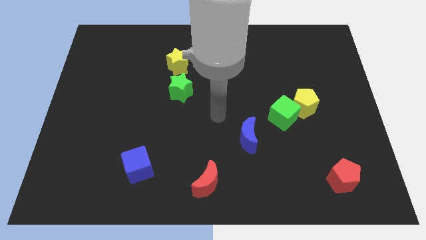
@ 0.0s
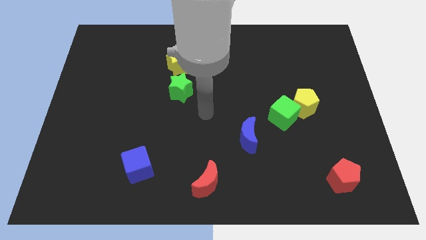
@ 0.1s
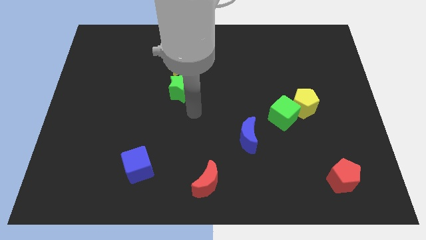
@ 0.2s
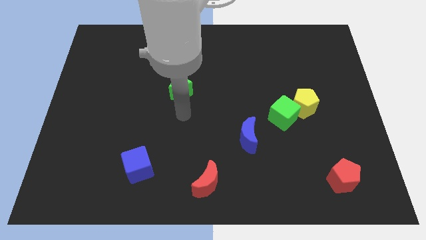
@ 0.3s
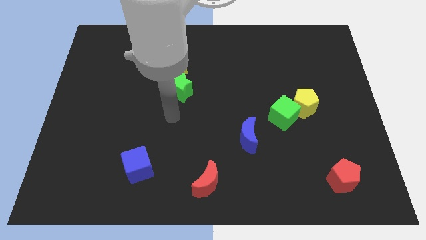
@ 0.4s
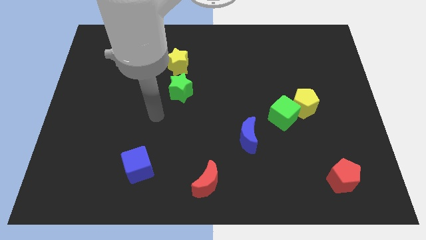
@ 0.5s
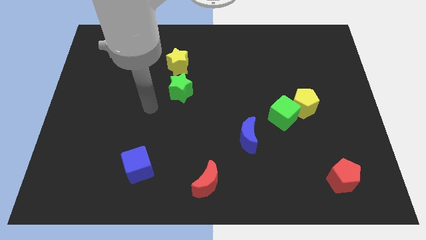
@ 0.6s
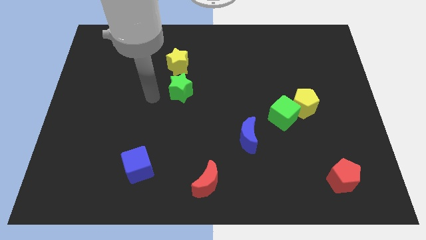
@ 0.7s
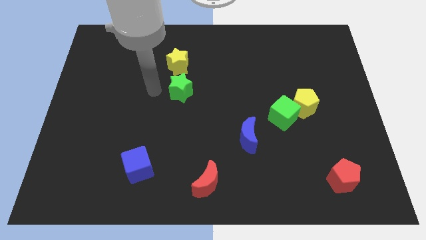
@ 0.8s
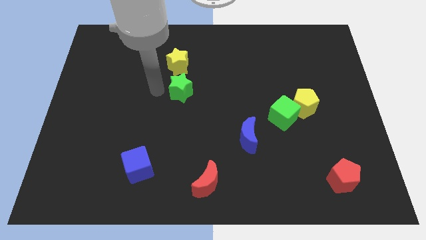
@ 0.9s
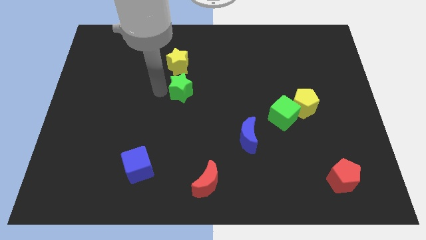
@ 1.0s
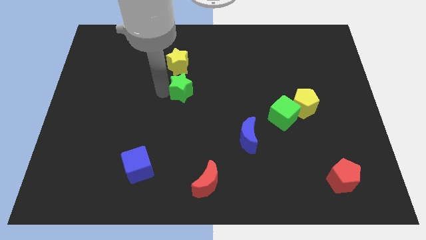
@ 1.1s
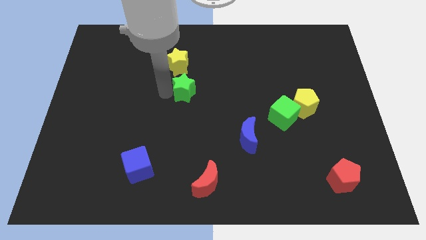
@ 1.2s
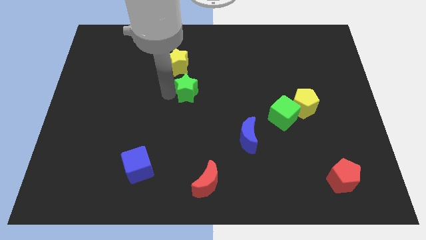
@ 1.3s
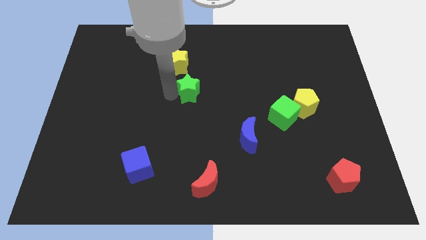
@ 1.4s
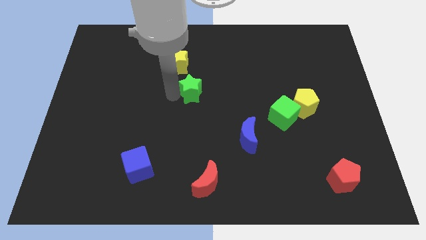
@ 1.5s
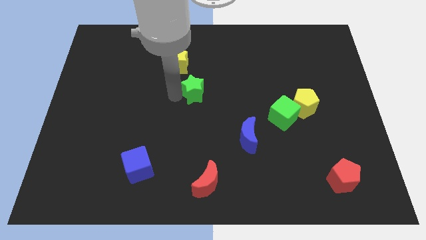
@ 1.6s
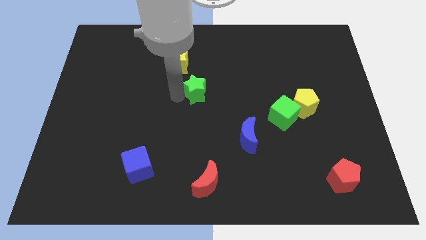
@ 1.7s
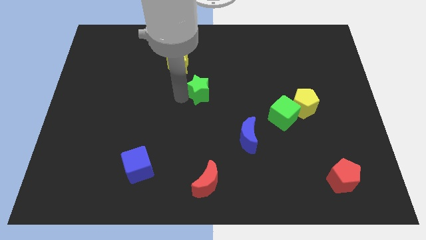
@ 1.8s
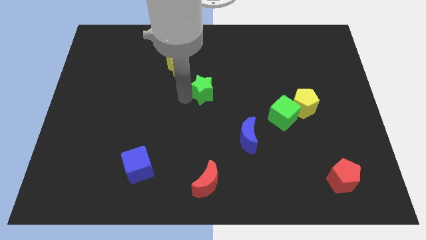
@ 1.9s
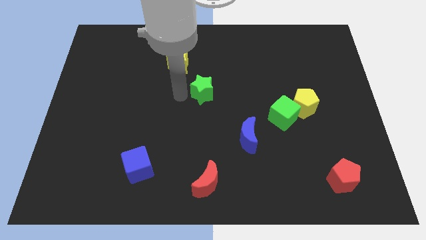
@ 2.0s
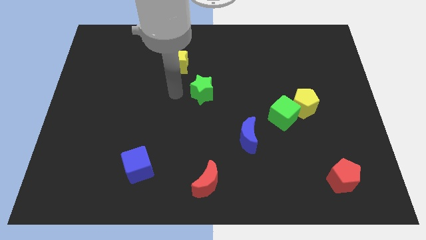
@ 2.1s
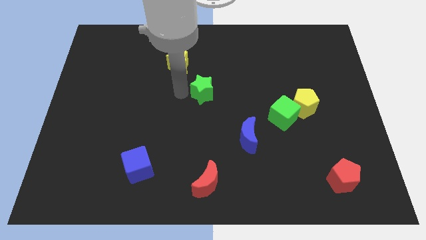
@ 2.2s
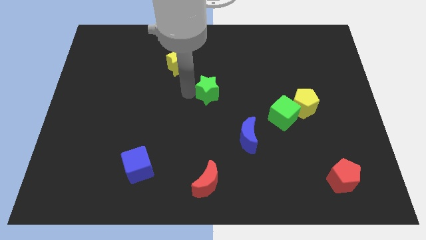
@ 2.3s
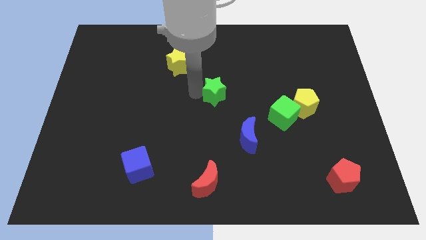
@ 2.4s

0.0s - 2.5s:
slightly move the green star to the right

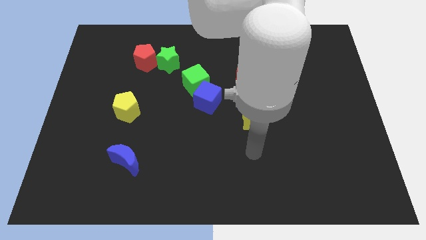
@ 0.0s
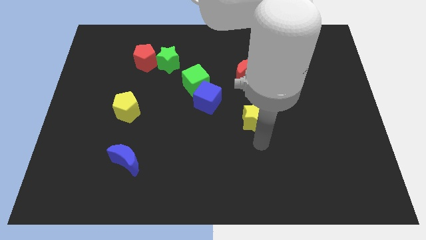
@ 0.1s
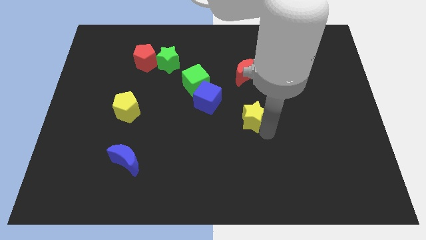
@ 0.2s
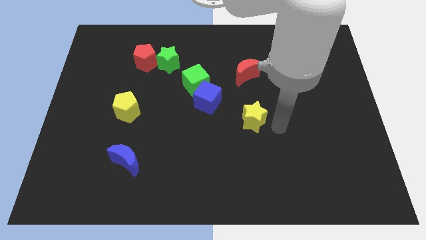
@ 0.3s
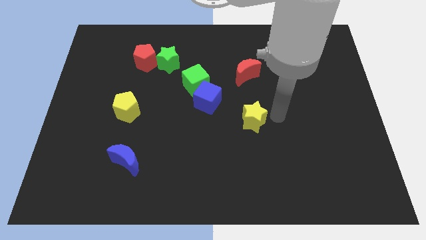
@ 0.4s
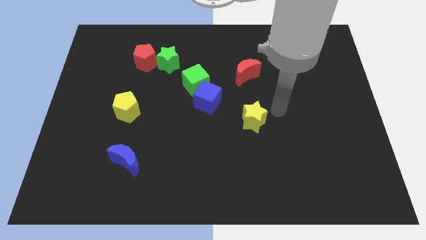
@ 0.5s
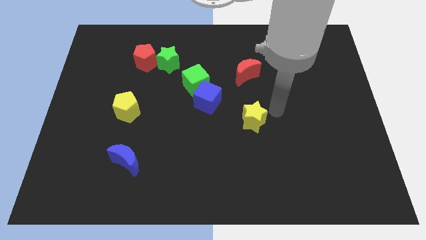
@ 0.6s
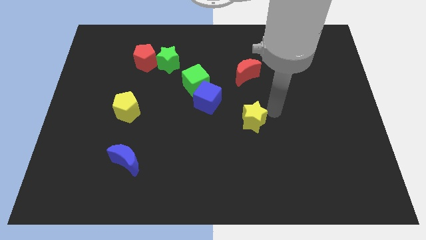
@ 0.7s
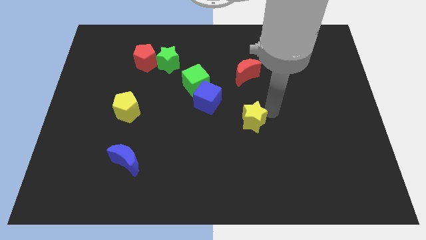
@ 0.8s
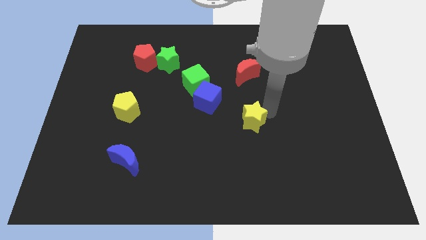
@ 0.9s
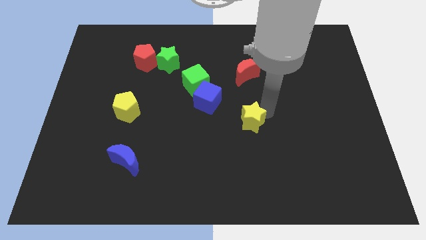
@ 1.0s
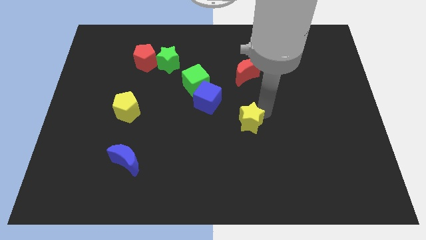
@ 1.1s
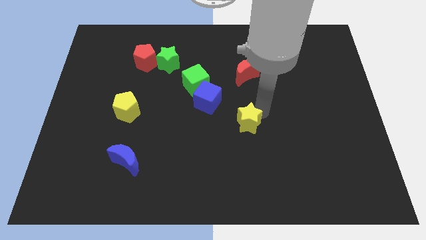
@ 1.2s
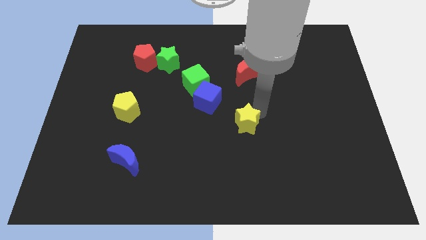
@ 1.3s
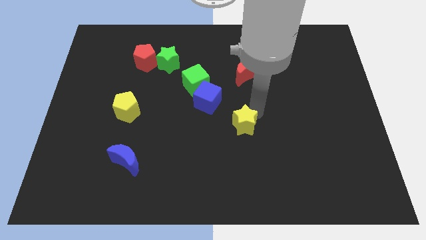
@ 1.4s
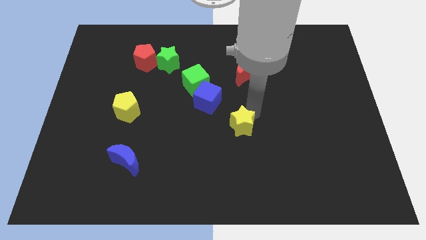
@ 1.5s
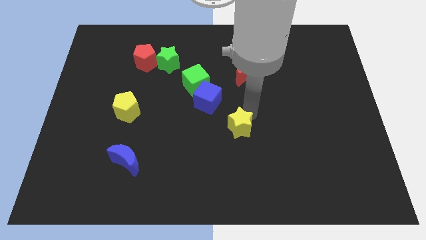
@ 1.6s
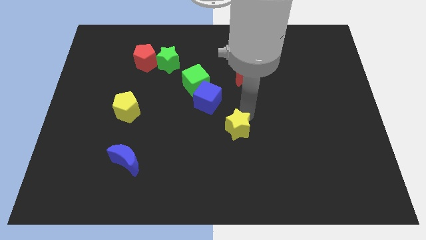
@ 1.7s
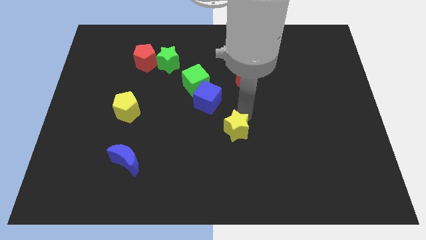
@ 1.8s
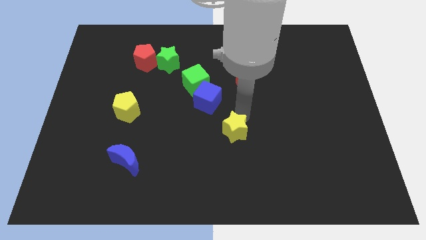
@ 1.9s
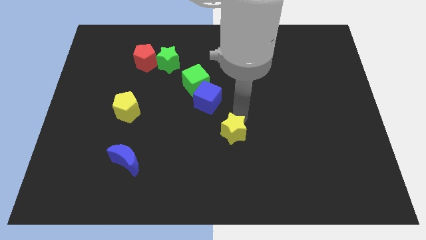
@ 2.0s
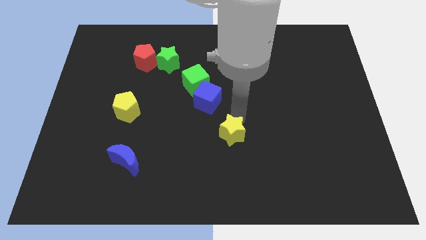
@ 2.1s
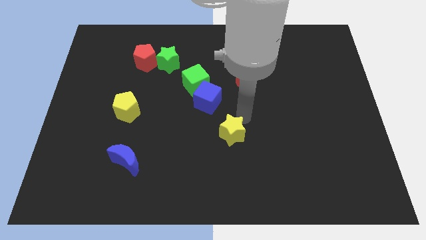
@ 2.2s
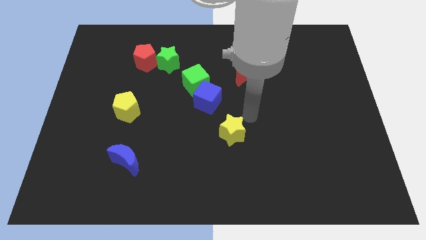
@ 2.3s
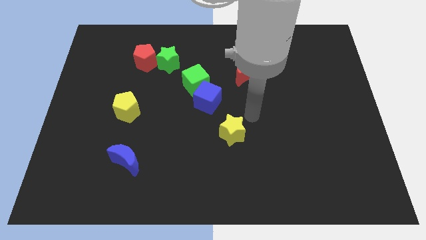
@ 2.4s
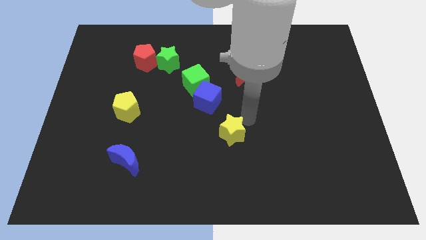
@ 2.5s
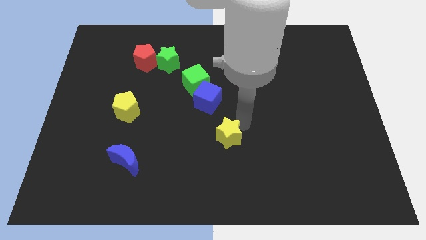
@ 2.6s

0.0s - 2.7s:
push the yellow star diagonally downwards and to the left a little bit

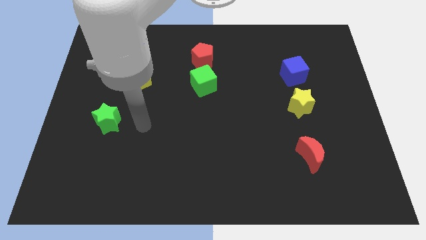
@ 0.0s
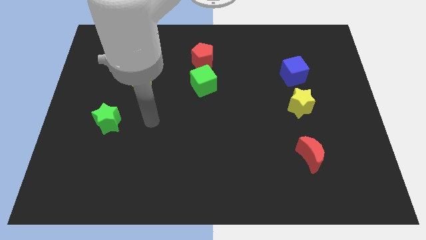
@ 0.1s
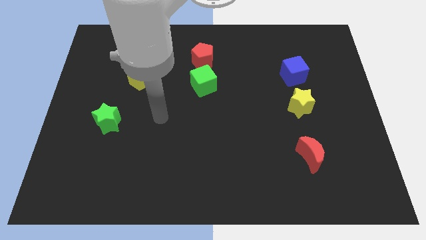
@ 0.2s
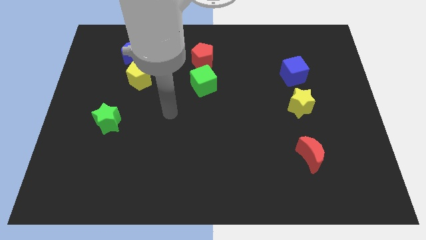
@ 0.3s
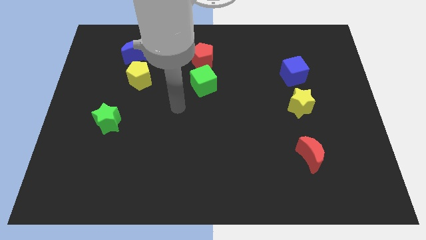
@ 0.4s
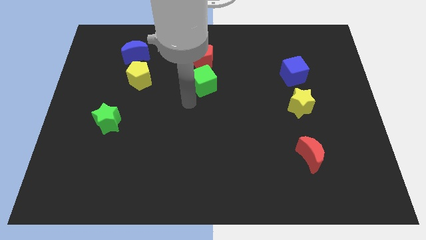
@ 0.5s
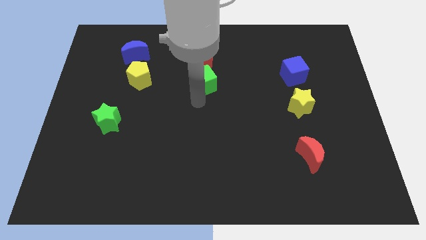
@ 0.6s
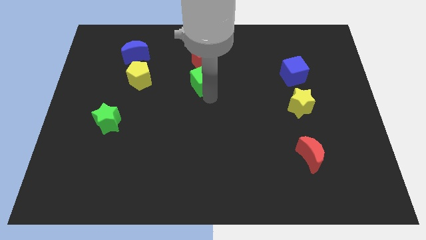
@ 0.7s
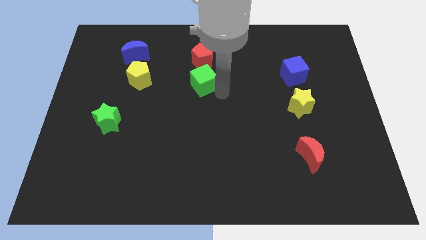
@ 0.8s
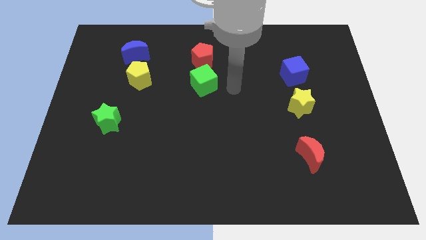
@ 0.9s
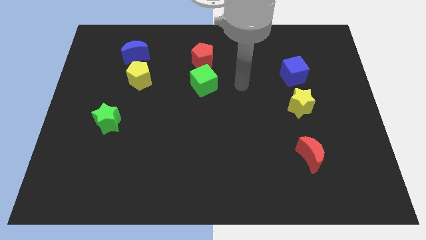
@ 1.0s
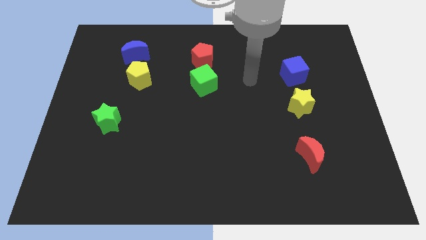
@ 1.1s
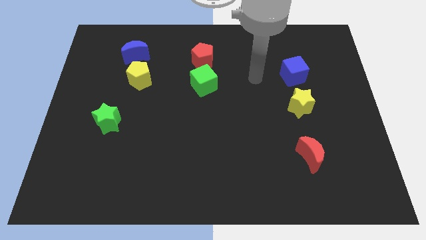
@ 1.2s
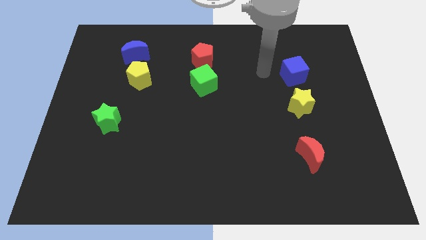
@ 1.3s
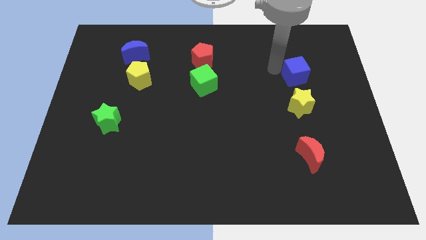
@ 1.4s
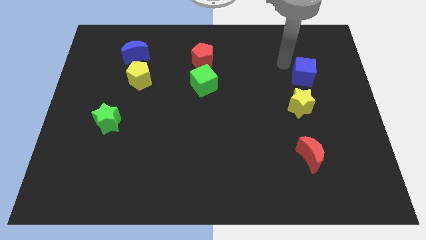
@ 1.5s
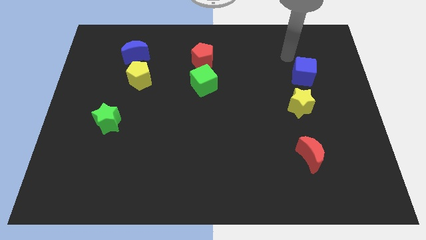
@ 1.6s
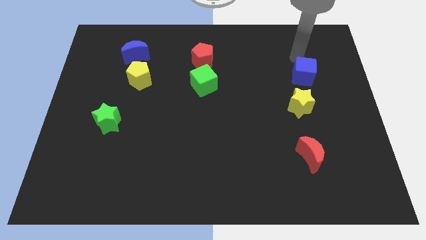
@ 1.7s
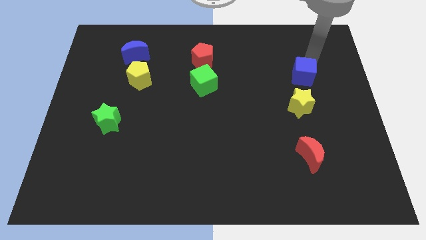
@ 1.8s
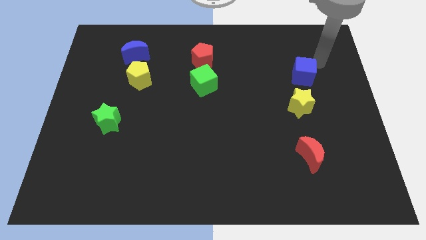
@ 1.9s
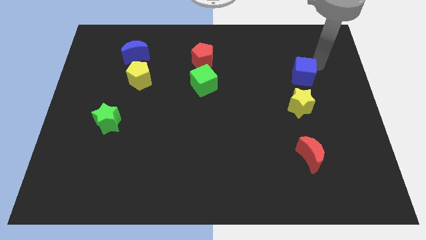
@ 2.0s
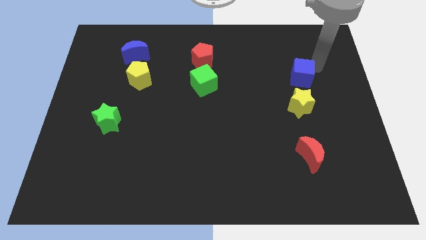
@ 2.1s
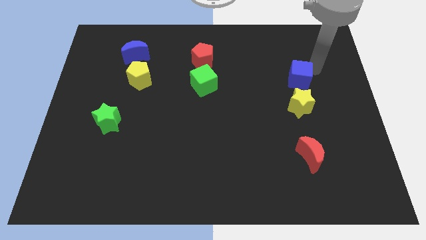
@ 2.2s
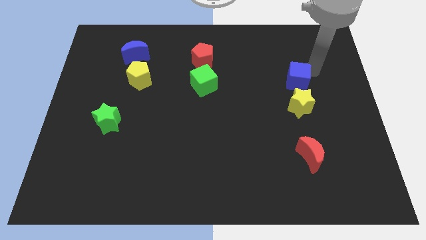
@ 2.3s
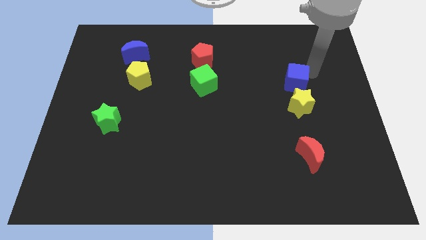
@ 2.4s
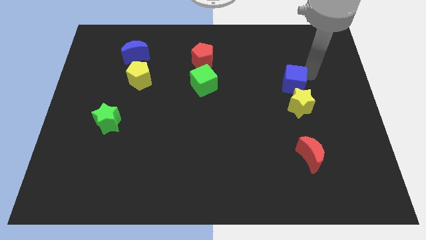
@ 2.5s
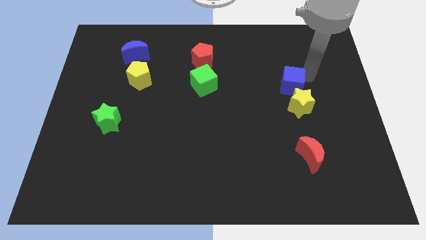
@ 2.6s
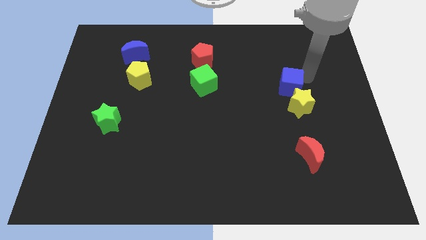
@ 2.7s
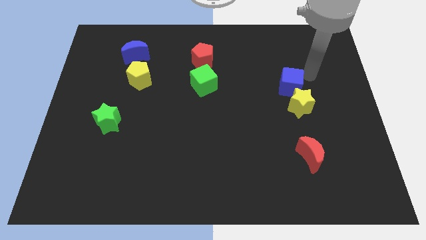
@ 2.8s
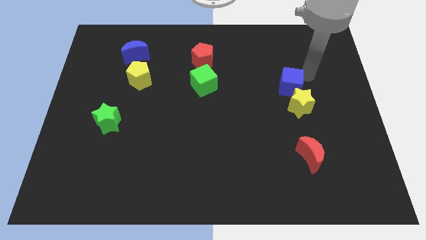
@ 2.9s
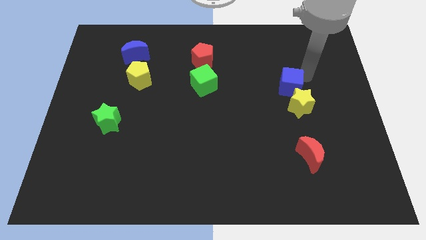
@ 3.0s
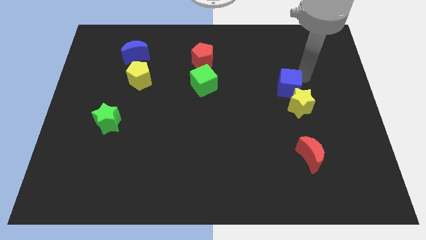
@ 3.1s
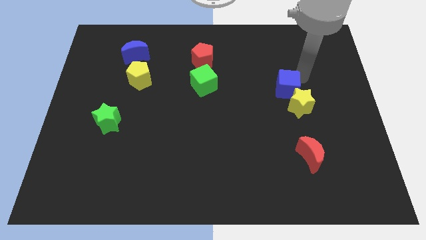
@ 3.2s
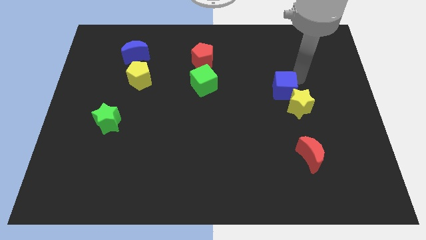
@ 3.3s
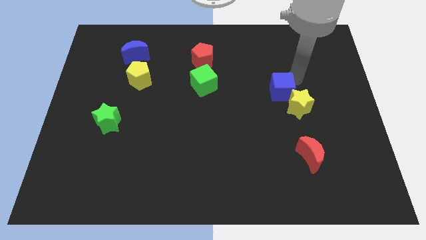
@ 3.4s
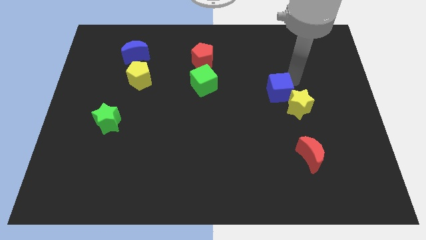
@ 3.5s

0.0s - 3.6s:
push the blue cube downwards and left diagonally a little bit
